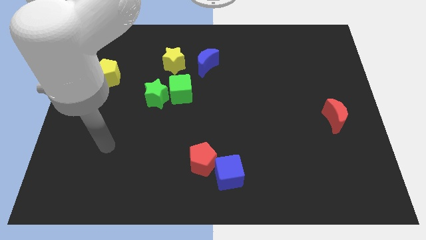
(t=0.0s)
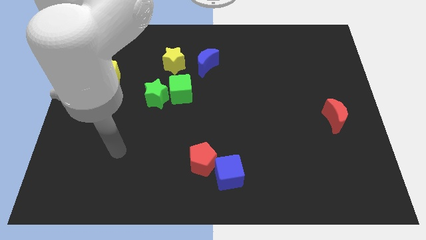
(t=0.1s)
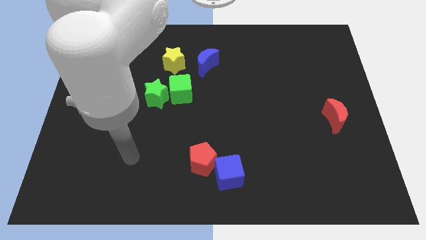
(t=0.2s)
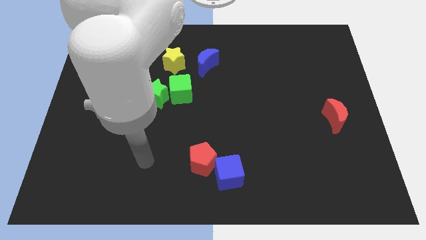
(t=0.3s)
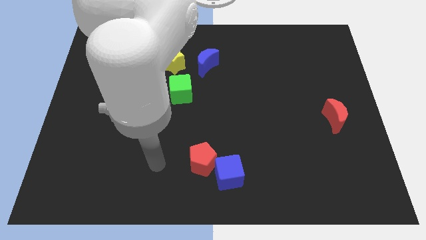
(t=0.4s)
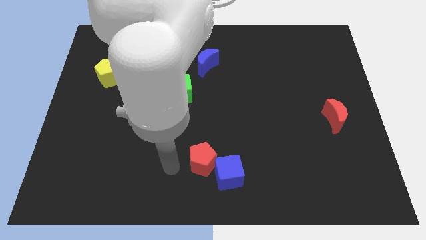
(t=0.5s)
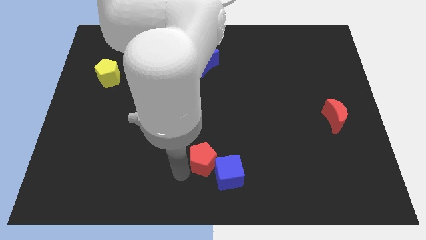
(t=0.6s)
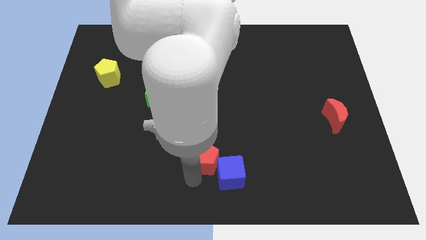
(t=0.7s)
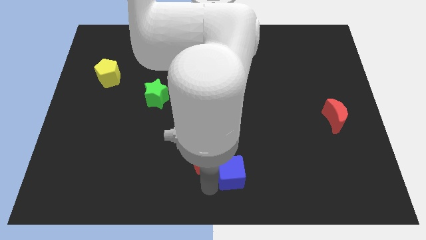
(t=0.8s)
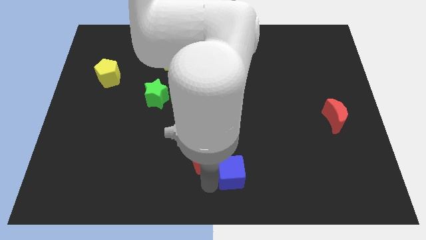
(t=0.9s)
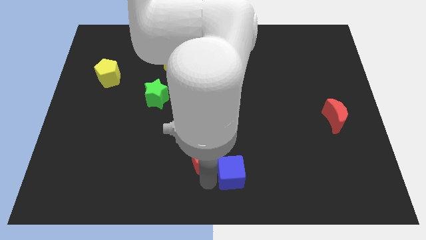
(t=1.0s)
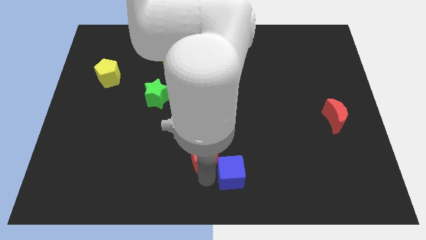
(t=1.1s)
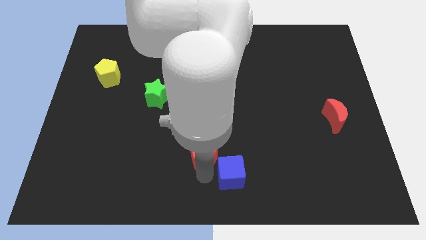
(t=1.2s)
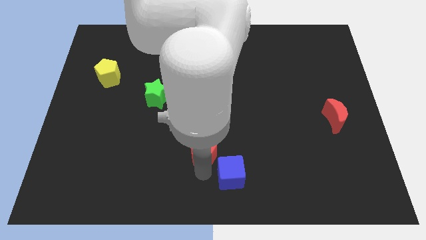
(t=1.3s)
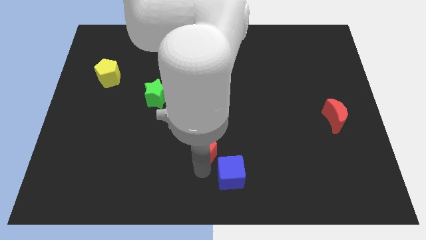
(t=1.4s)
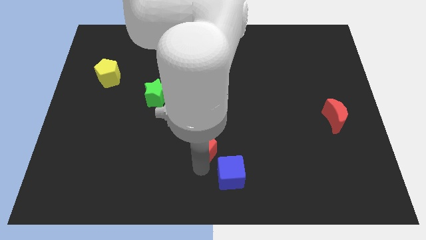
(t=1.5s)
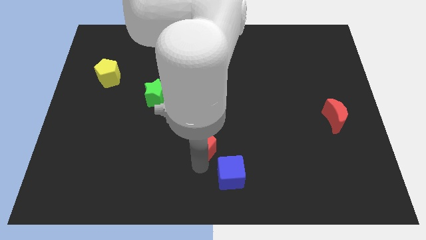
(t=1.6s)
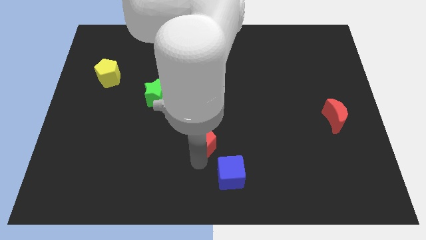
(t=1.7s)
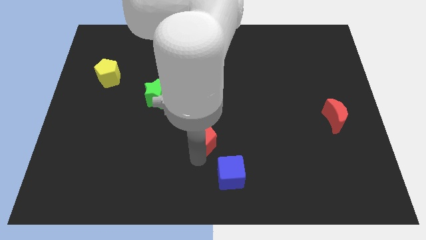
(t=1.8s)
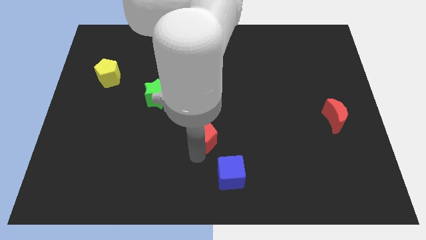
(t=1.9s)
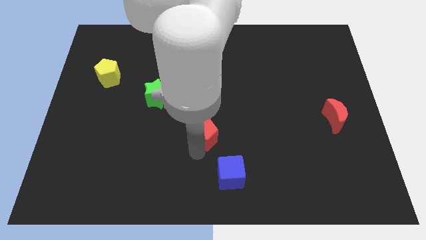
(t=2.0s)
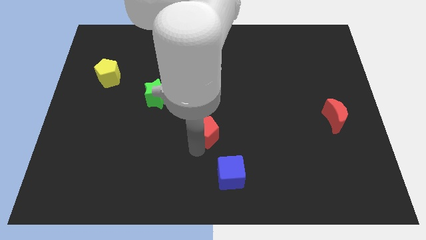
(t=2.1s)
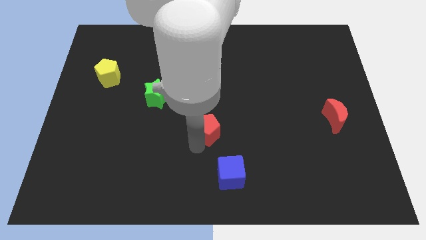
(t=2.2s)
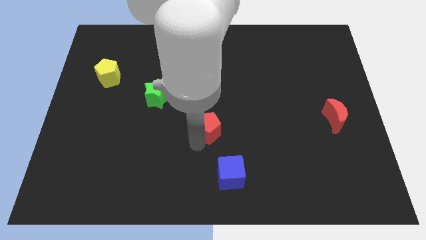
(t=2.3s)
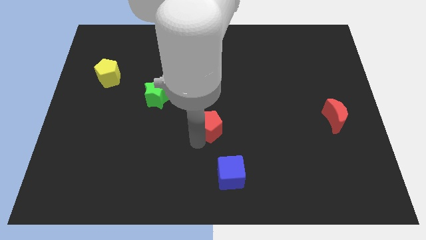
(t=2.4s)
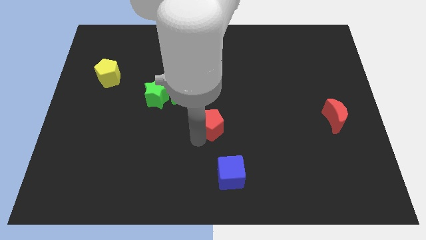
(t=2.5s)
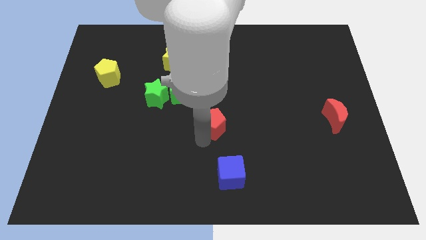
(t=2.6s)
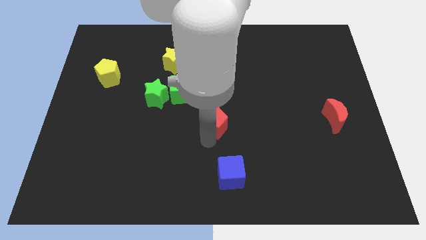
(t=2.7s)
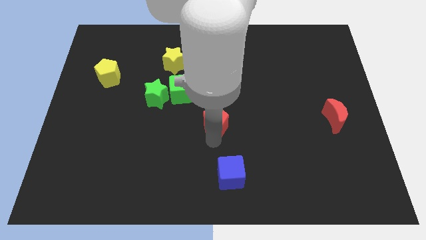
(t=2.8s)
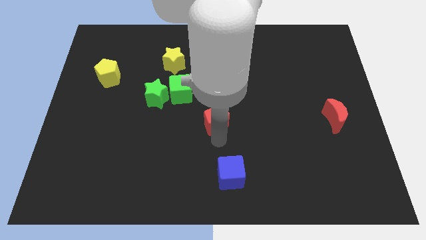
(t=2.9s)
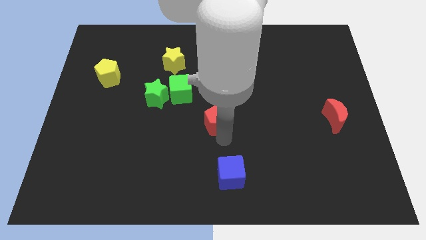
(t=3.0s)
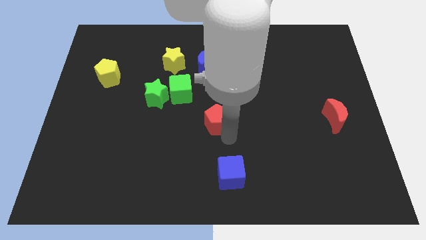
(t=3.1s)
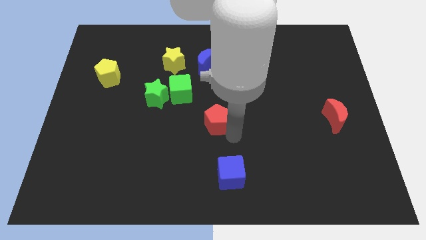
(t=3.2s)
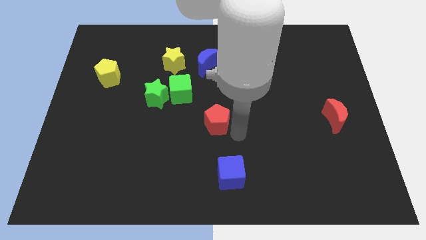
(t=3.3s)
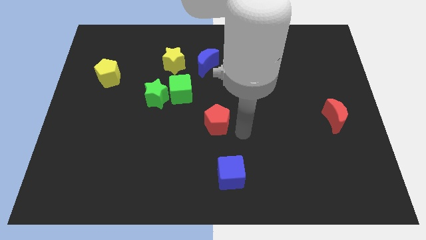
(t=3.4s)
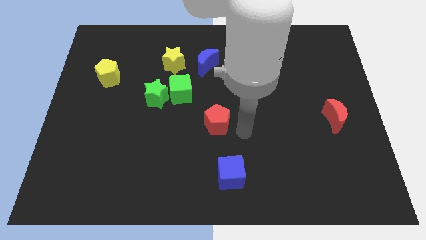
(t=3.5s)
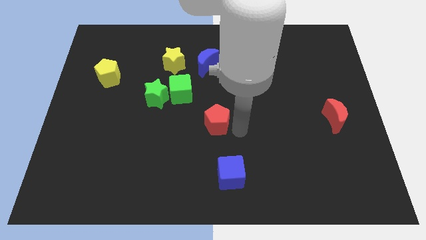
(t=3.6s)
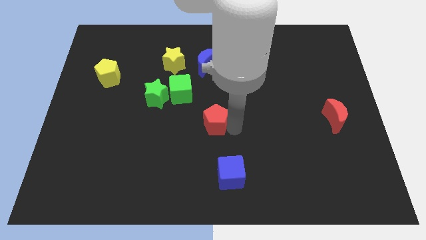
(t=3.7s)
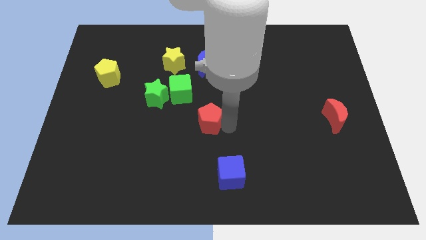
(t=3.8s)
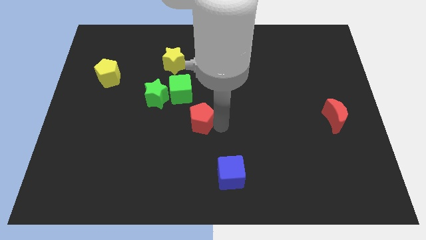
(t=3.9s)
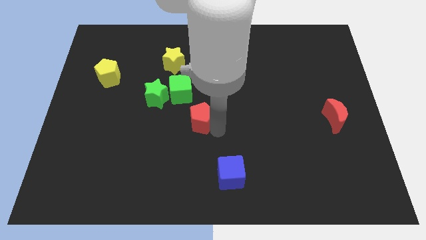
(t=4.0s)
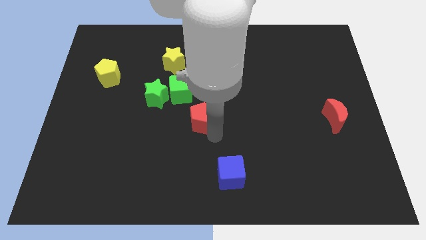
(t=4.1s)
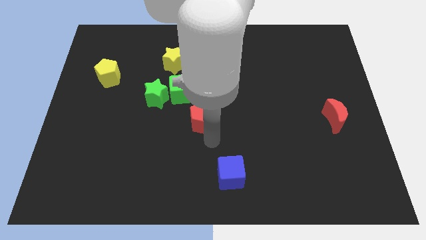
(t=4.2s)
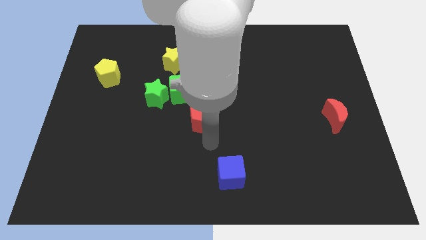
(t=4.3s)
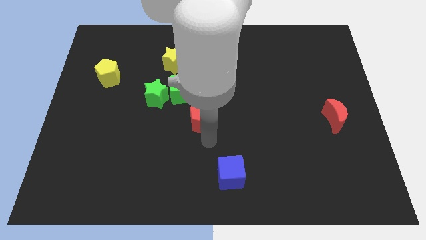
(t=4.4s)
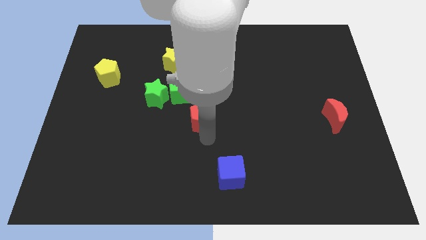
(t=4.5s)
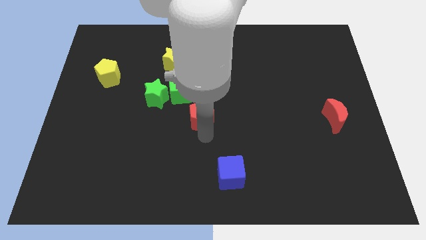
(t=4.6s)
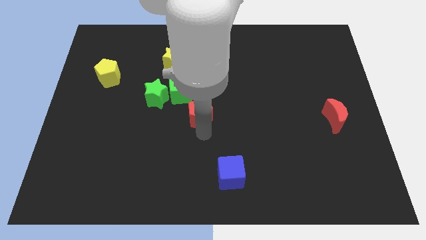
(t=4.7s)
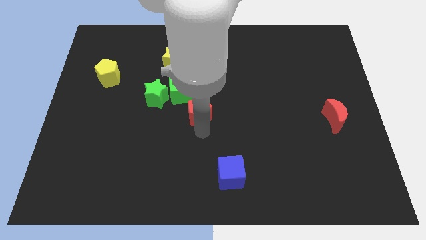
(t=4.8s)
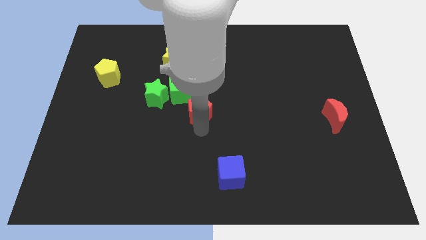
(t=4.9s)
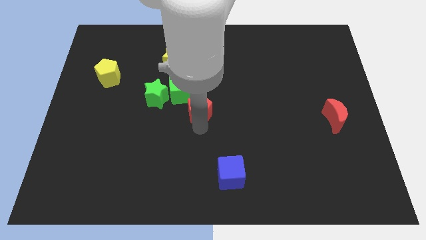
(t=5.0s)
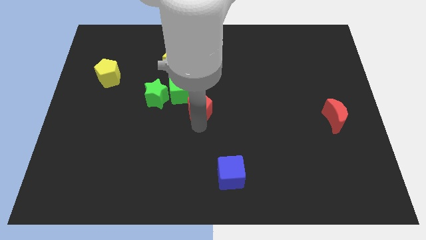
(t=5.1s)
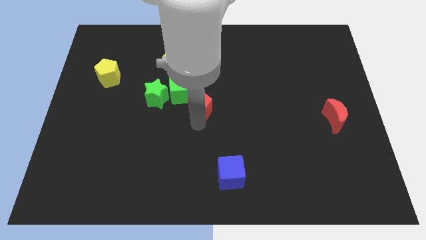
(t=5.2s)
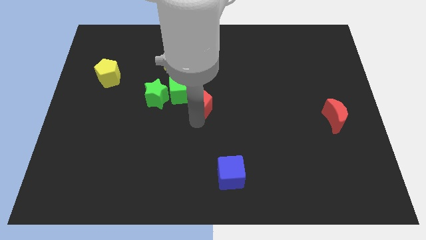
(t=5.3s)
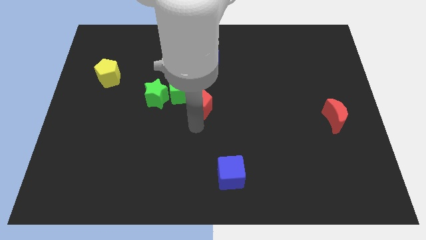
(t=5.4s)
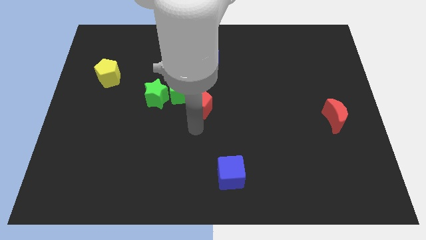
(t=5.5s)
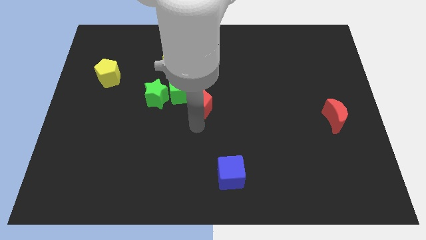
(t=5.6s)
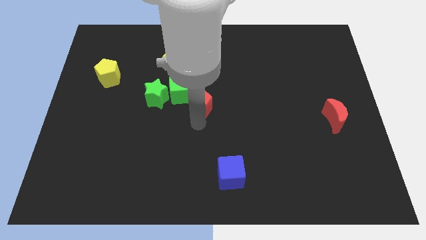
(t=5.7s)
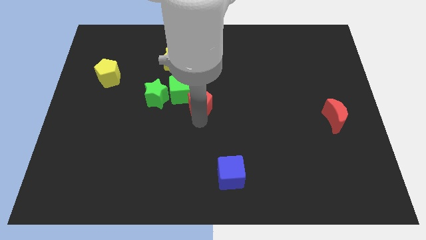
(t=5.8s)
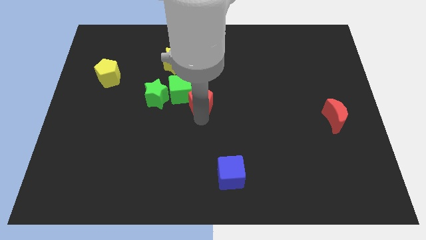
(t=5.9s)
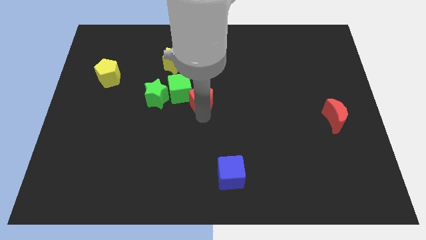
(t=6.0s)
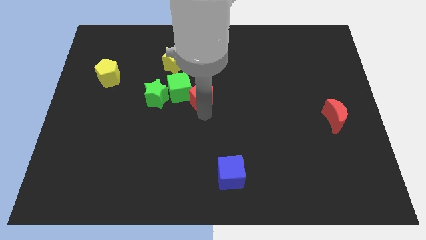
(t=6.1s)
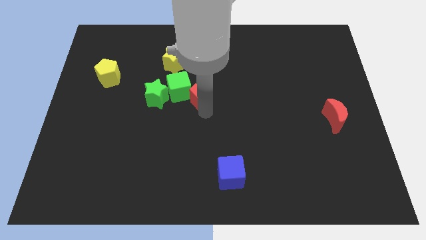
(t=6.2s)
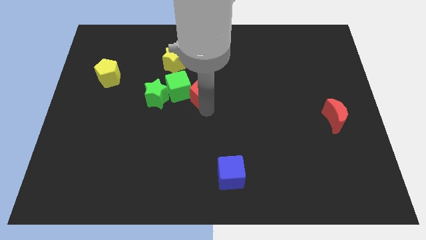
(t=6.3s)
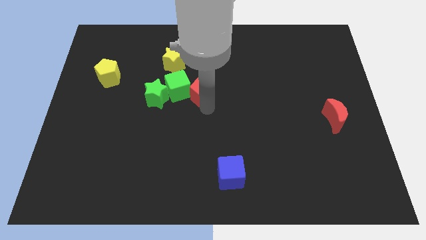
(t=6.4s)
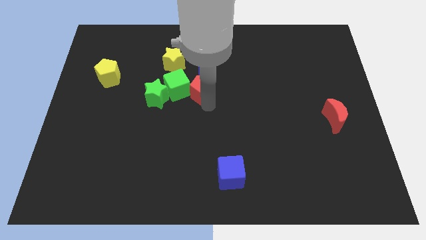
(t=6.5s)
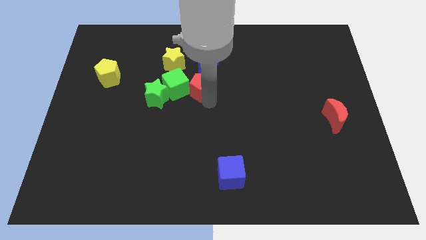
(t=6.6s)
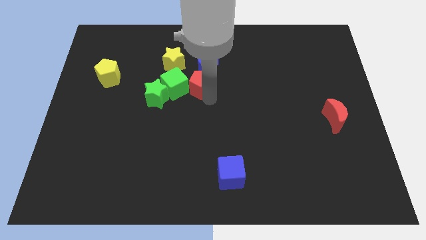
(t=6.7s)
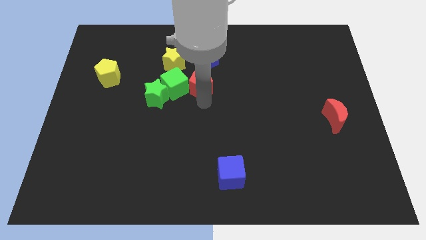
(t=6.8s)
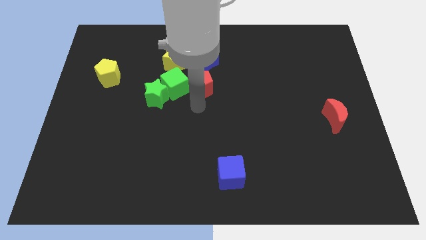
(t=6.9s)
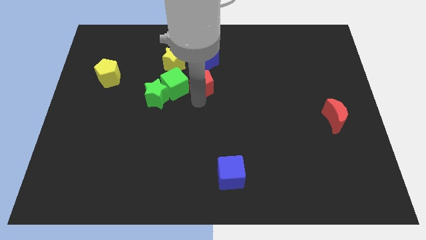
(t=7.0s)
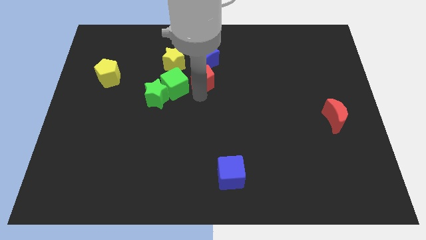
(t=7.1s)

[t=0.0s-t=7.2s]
push the red pentagon next to the blue moon
